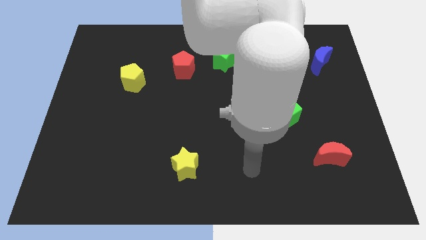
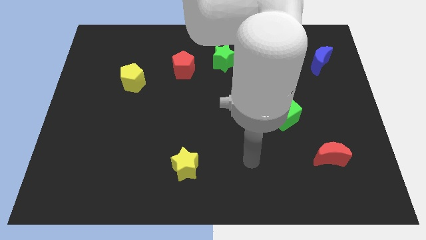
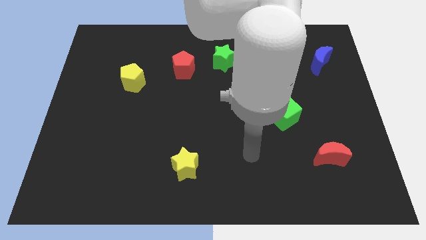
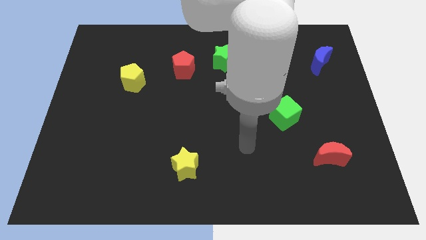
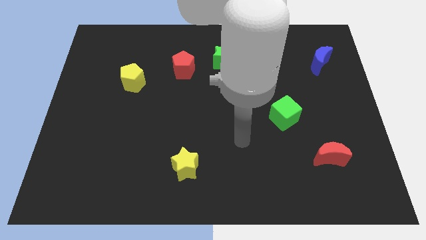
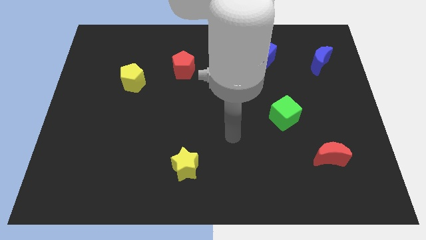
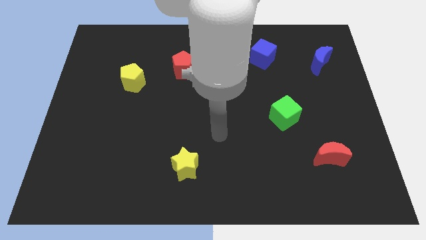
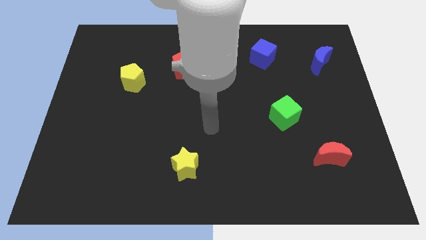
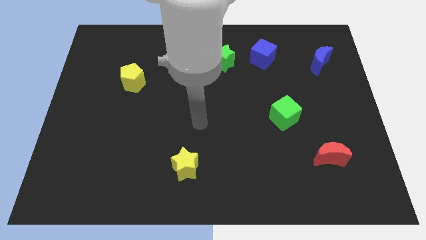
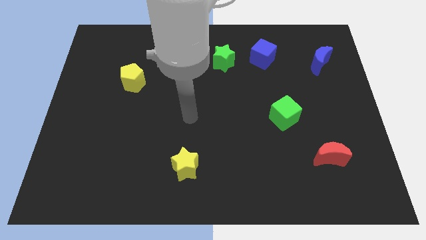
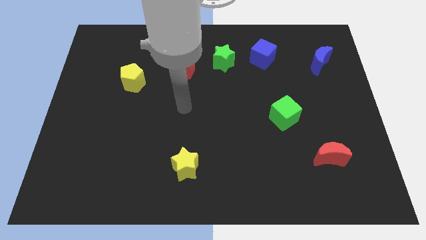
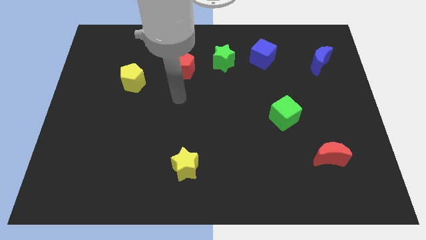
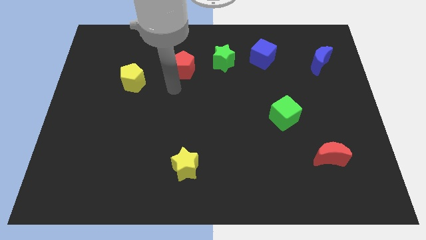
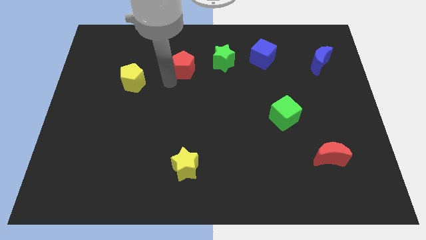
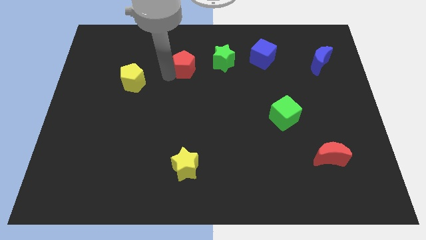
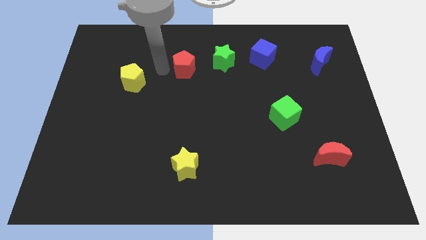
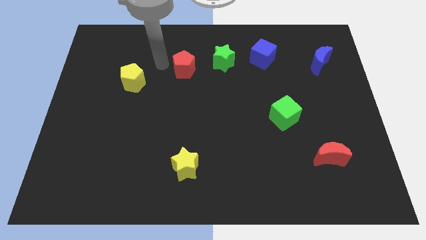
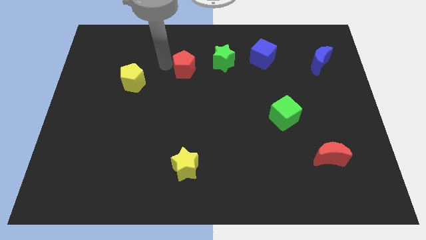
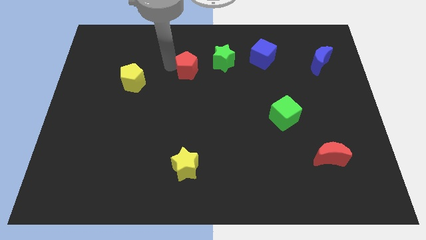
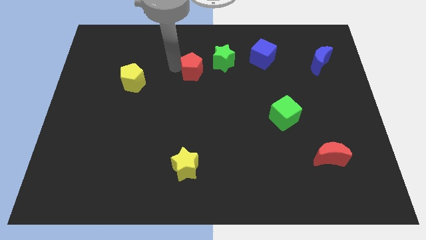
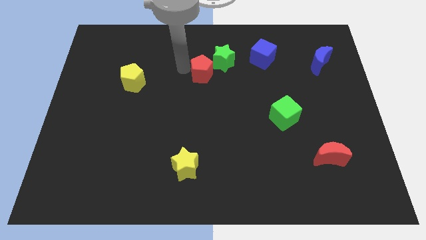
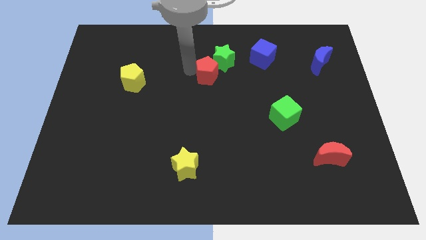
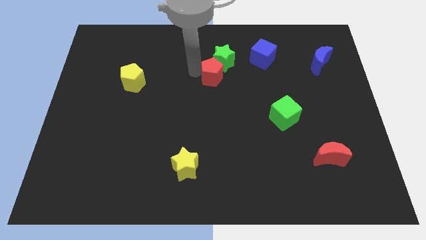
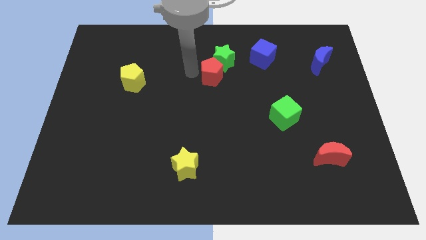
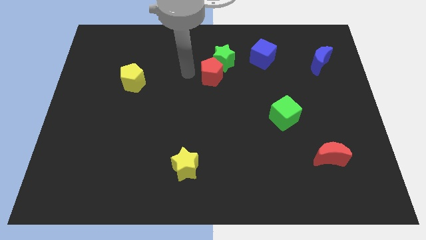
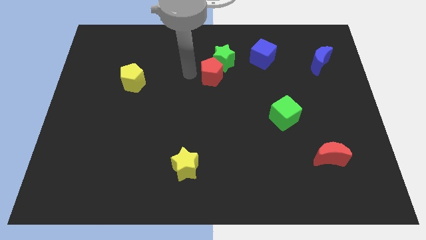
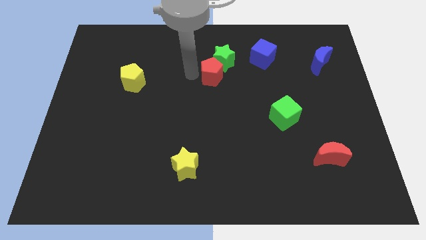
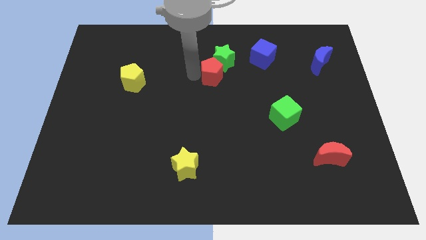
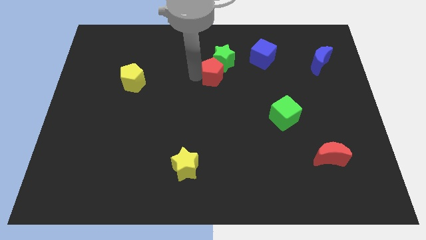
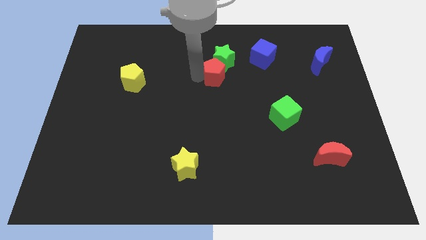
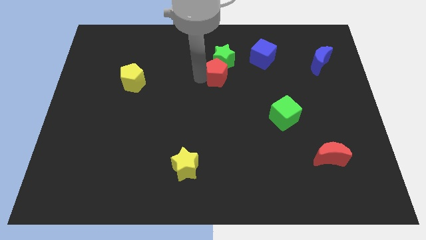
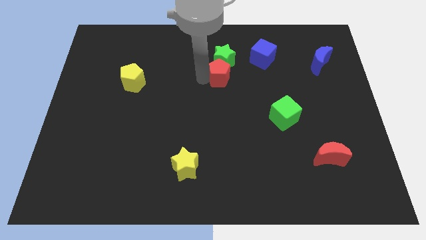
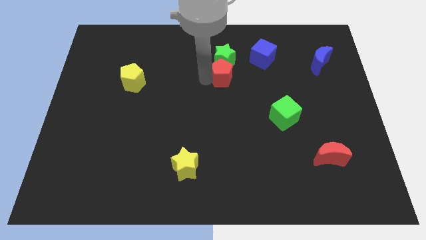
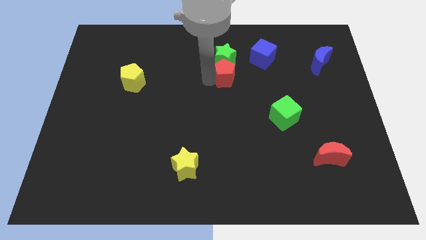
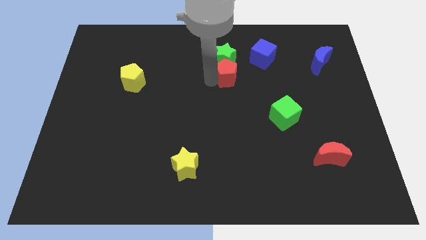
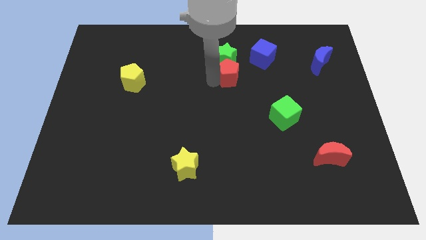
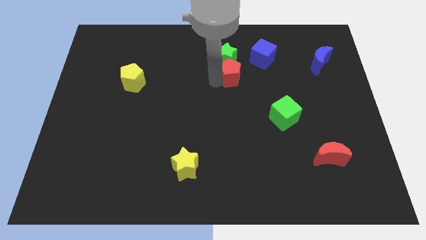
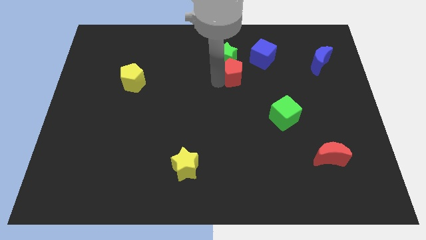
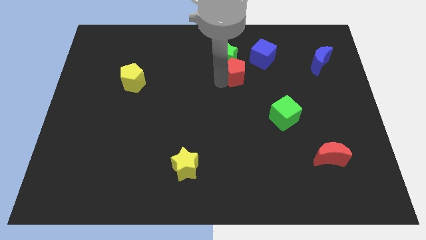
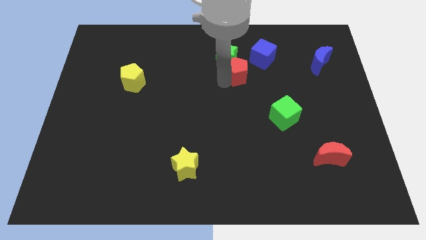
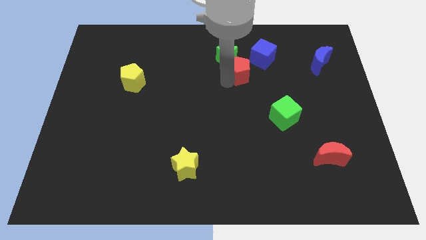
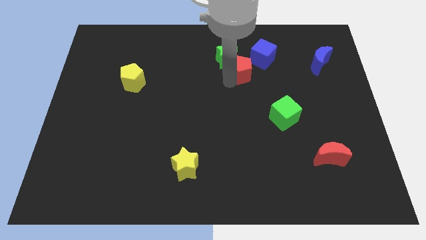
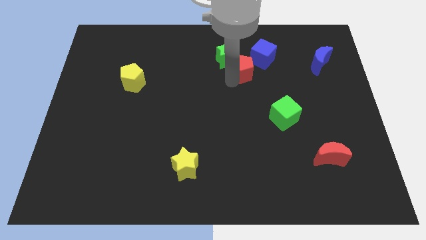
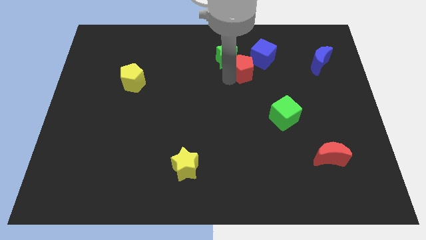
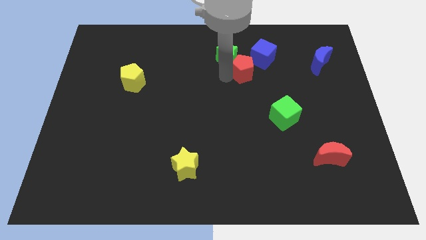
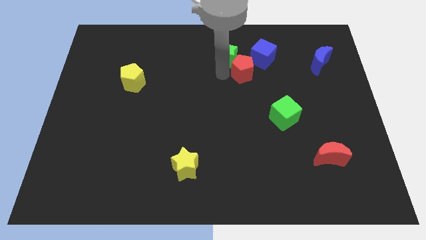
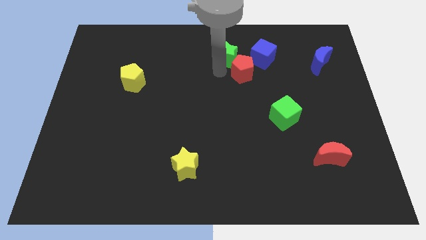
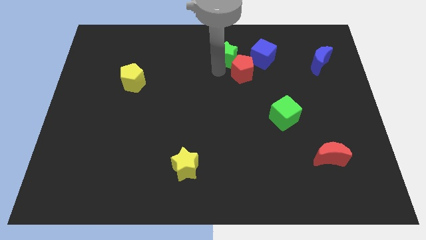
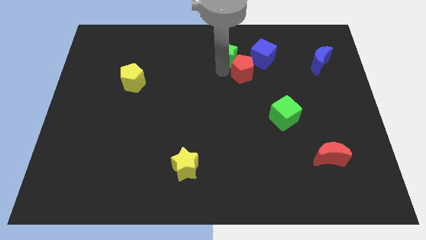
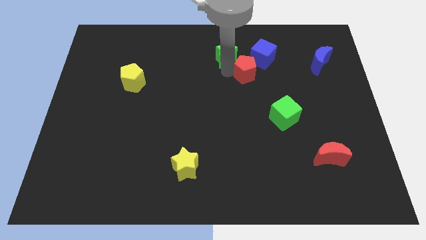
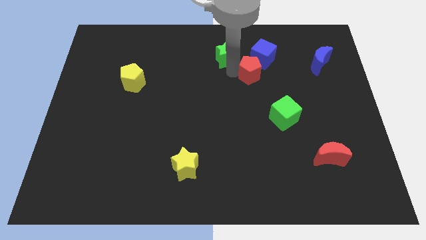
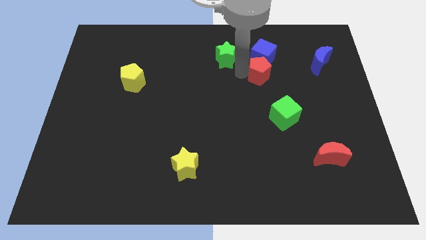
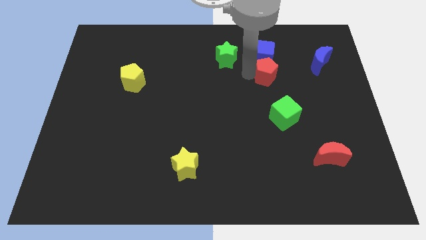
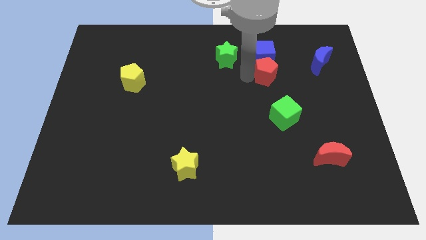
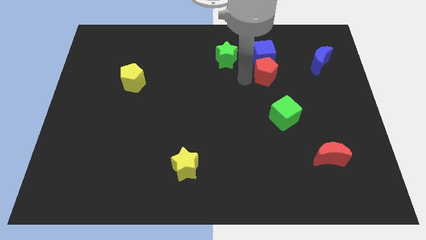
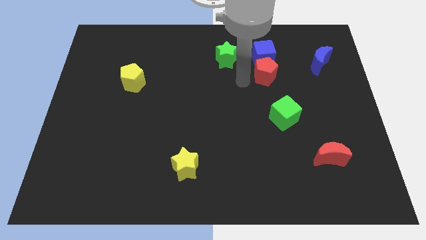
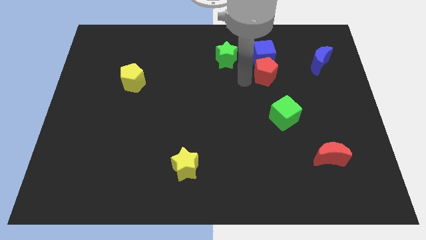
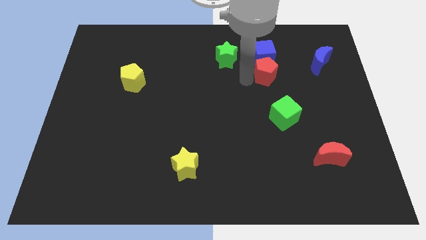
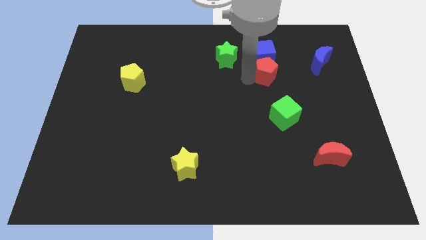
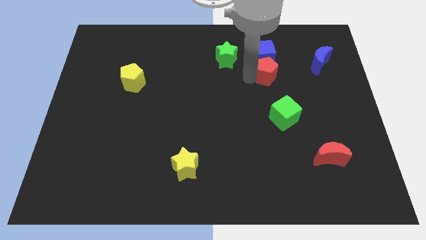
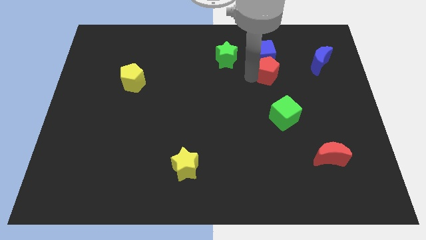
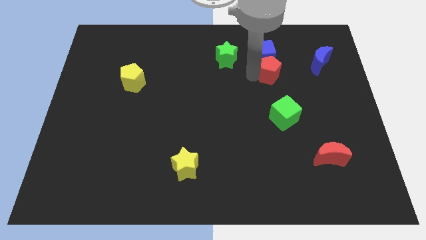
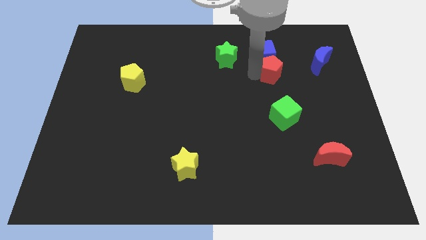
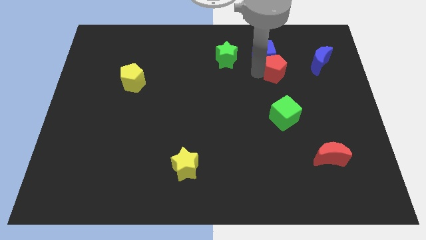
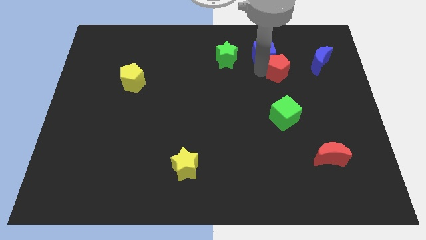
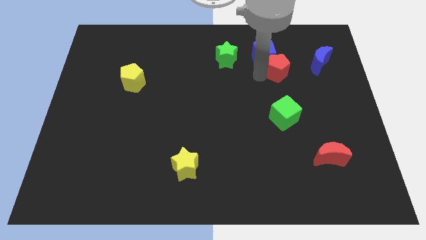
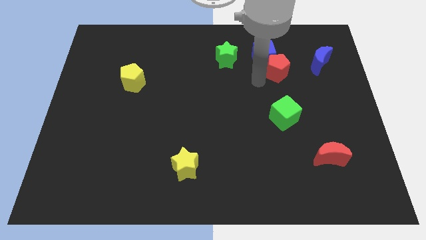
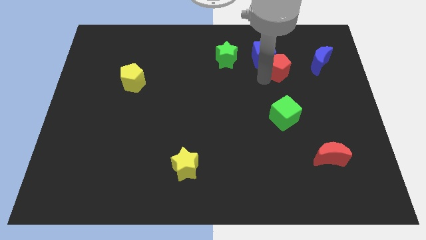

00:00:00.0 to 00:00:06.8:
put the red pentagon to the right of the blue cube
